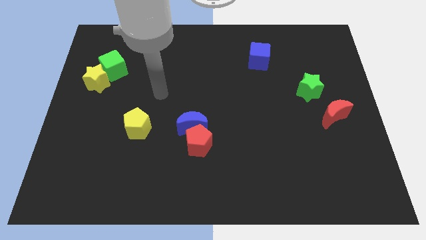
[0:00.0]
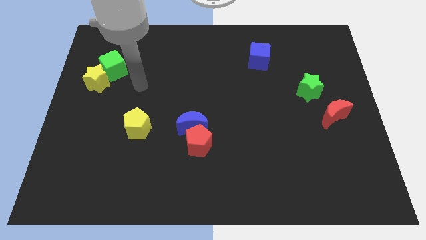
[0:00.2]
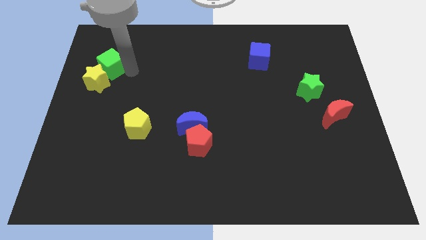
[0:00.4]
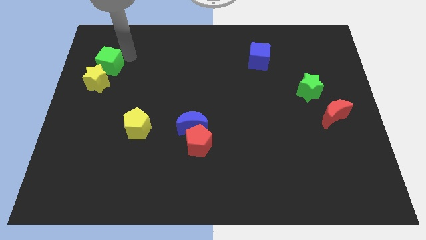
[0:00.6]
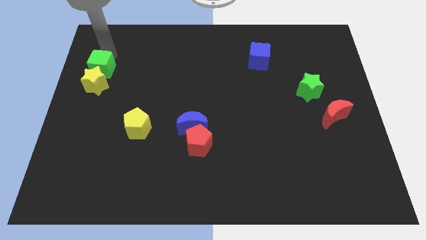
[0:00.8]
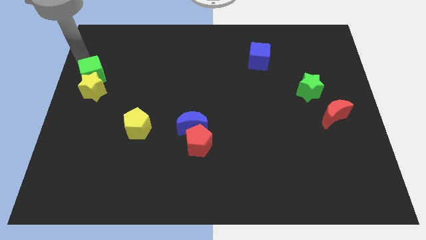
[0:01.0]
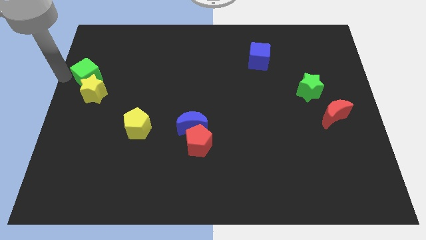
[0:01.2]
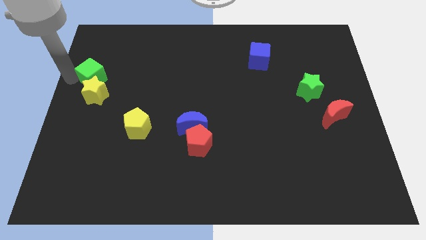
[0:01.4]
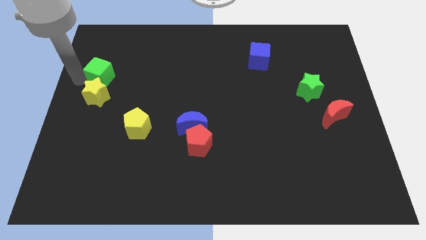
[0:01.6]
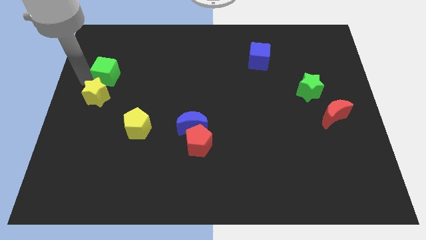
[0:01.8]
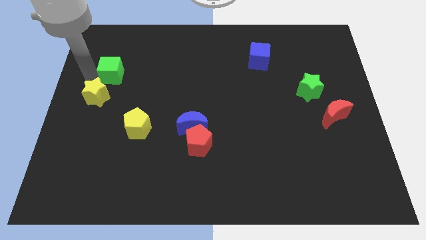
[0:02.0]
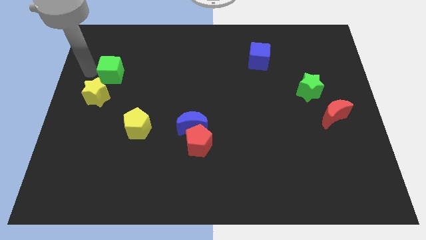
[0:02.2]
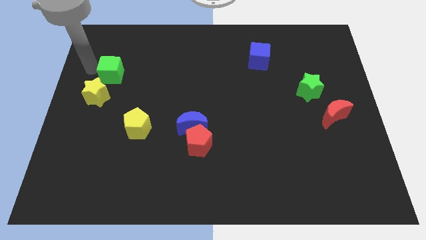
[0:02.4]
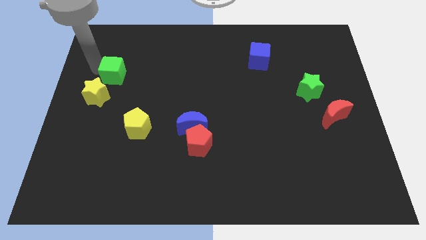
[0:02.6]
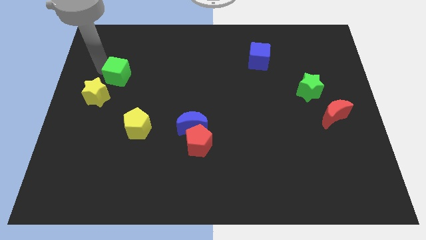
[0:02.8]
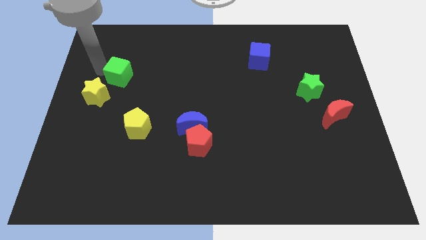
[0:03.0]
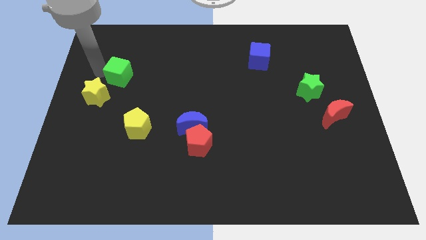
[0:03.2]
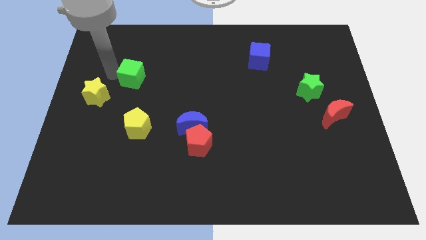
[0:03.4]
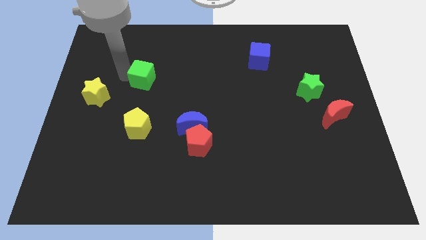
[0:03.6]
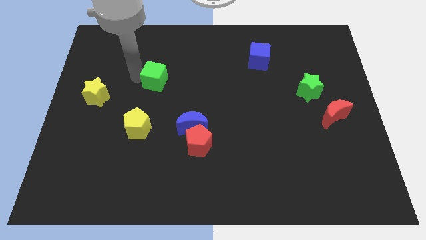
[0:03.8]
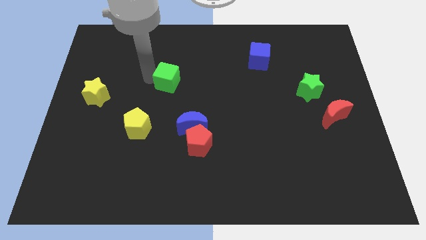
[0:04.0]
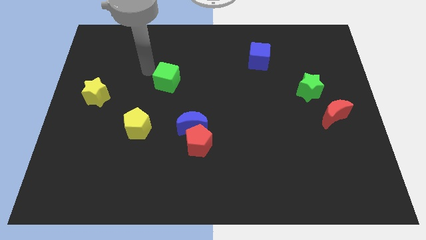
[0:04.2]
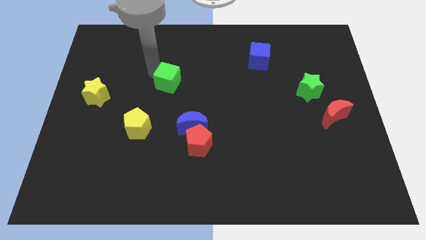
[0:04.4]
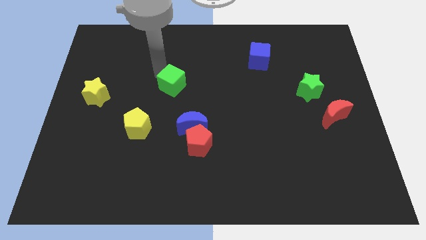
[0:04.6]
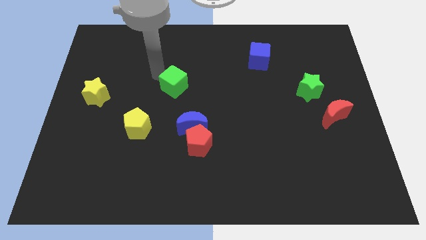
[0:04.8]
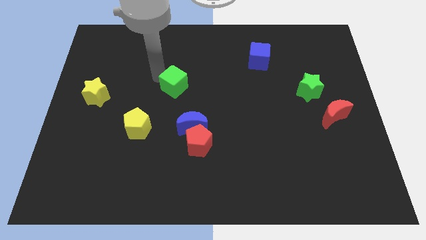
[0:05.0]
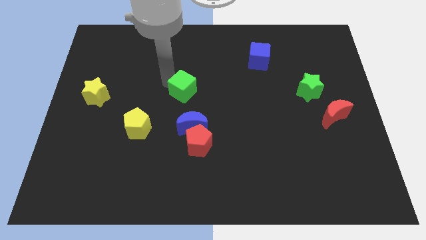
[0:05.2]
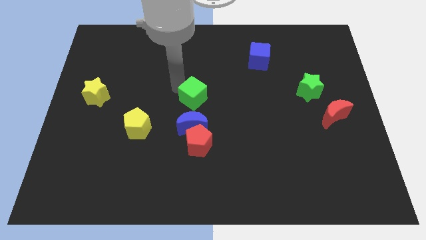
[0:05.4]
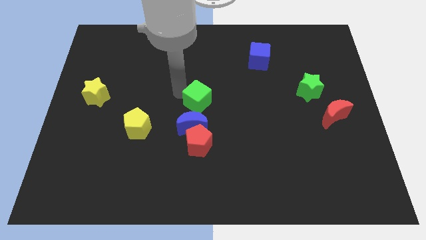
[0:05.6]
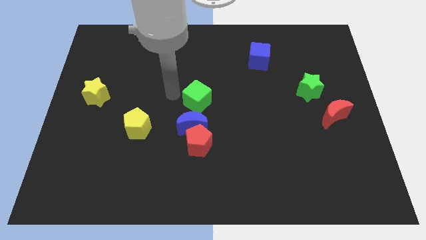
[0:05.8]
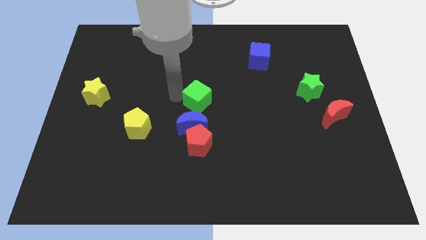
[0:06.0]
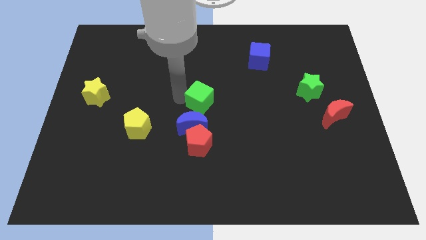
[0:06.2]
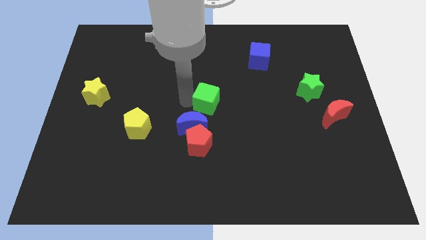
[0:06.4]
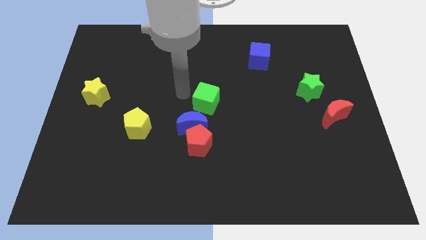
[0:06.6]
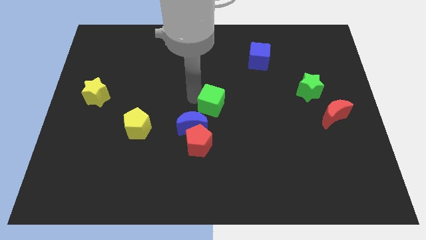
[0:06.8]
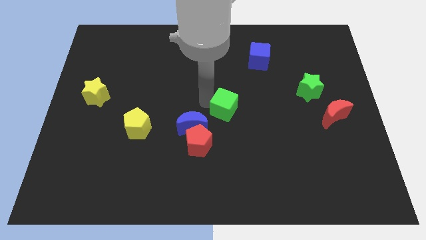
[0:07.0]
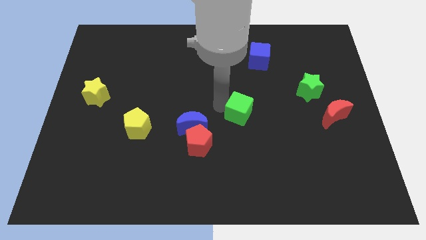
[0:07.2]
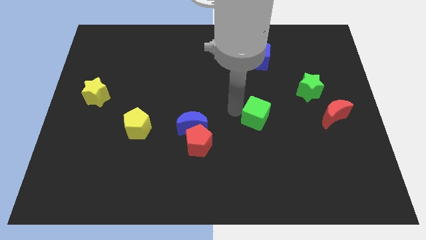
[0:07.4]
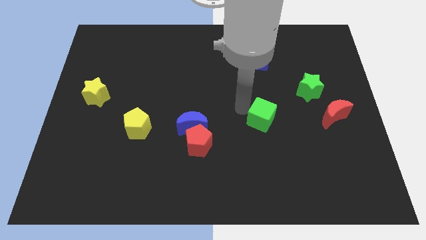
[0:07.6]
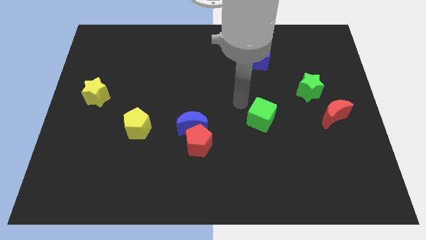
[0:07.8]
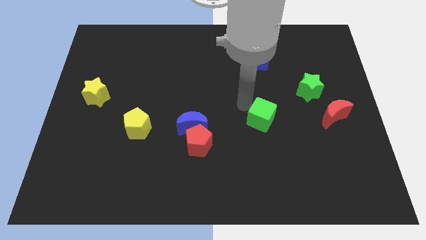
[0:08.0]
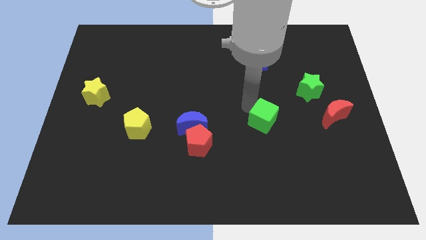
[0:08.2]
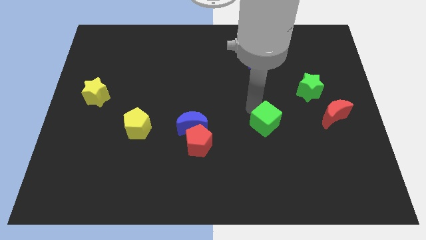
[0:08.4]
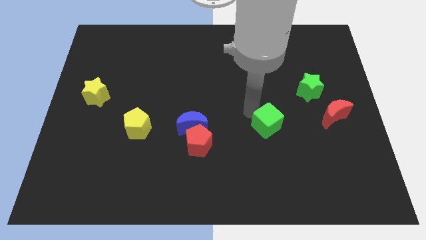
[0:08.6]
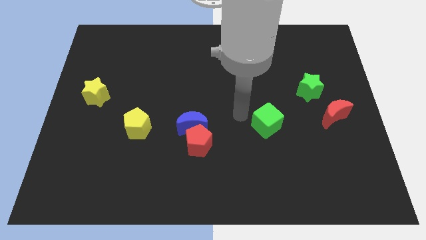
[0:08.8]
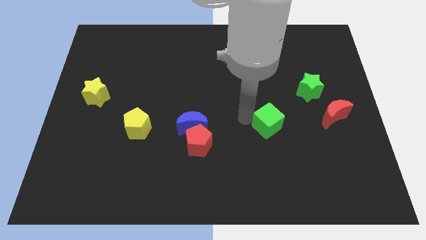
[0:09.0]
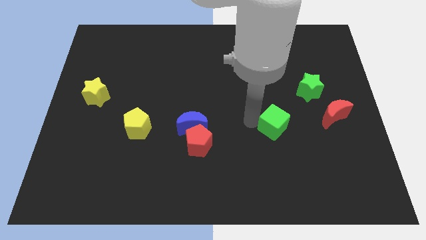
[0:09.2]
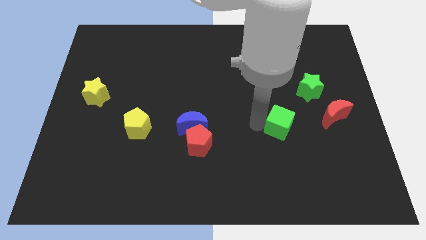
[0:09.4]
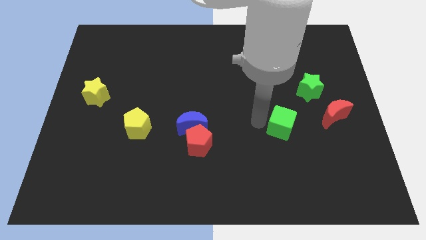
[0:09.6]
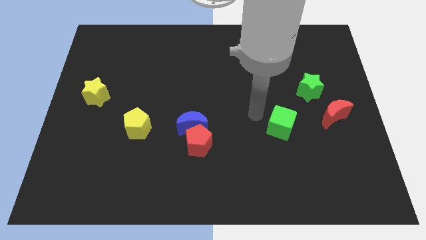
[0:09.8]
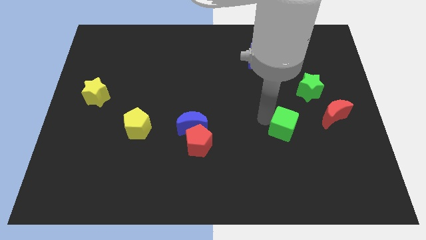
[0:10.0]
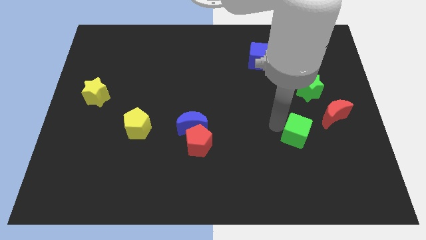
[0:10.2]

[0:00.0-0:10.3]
push the green cube diagonally down and to the left of the red moon

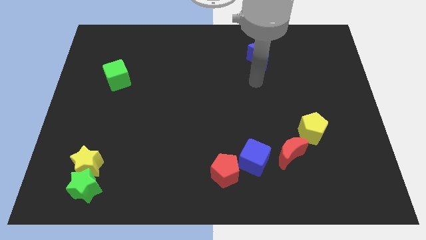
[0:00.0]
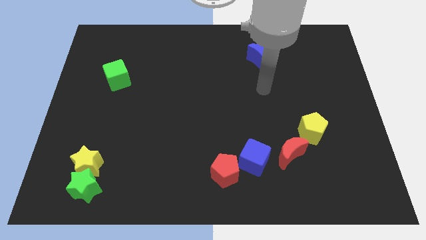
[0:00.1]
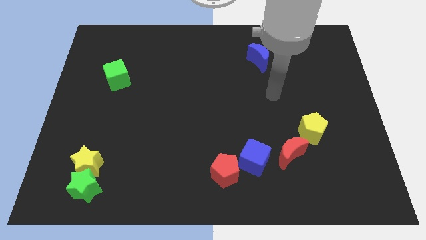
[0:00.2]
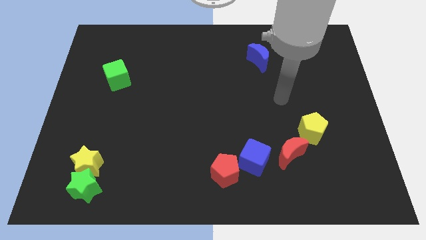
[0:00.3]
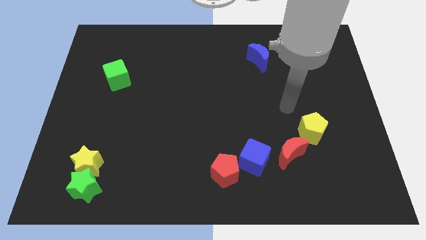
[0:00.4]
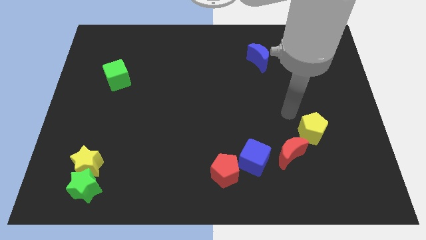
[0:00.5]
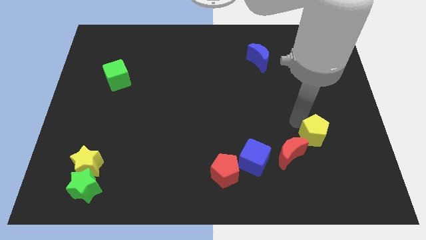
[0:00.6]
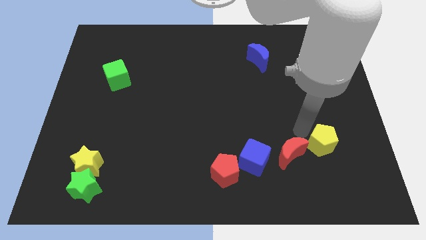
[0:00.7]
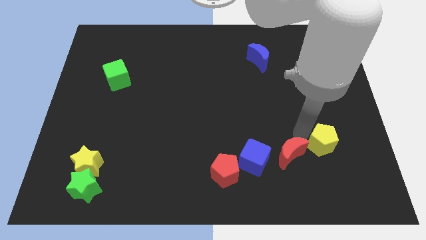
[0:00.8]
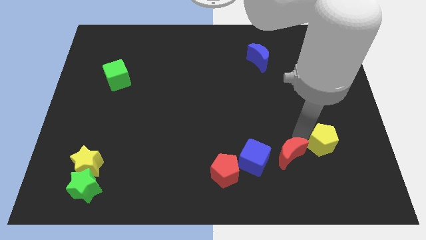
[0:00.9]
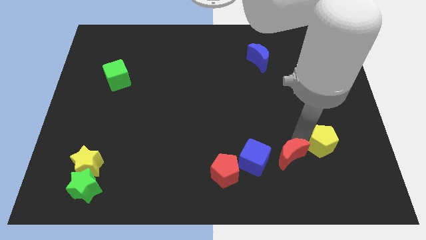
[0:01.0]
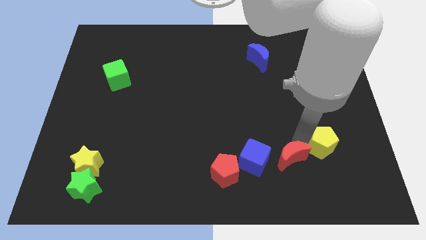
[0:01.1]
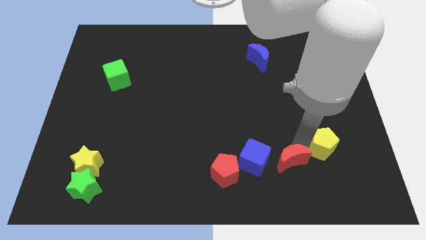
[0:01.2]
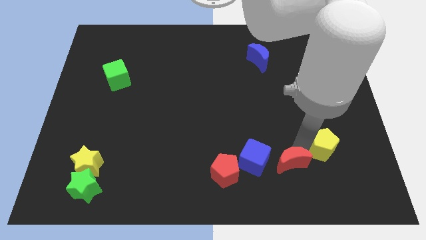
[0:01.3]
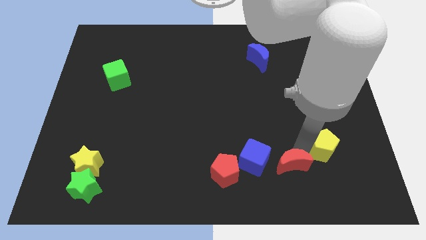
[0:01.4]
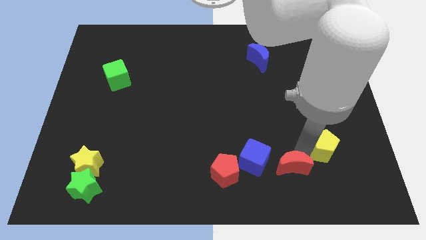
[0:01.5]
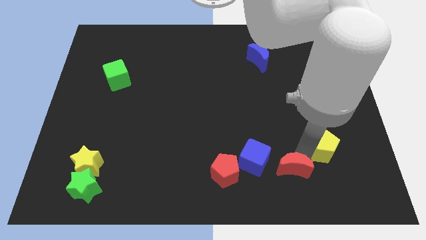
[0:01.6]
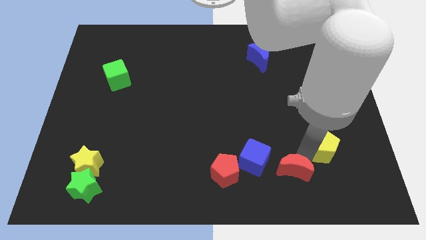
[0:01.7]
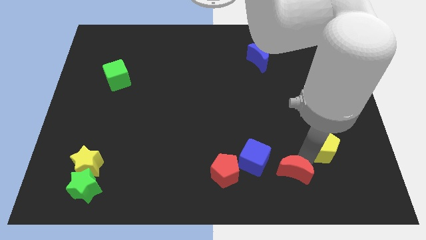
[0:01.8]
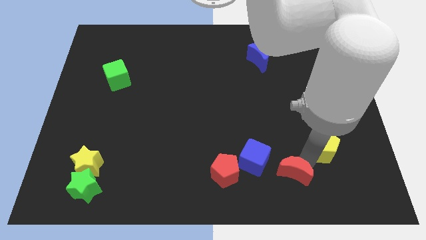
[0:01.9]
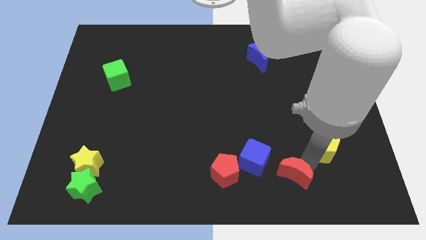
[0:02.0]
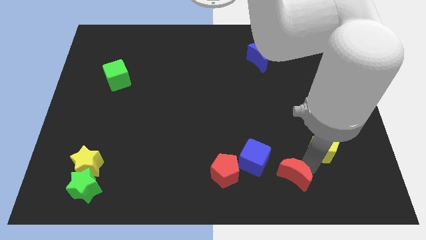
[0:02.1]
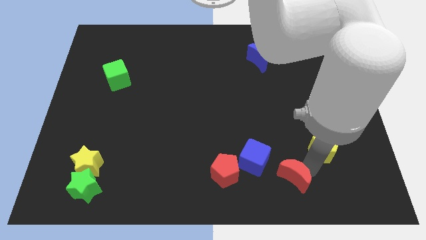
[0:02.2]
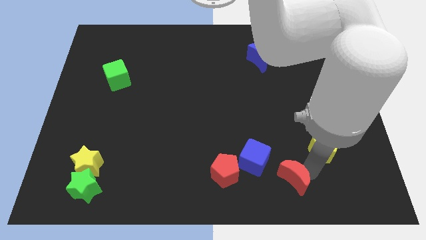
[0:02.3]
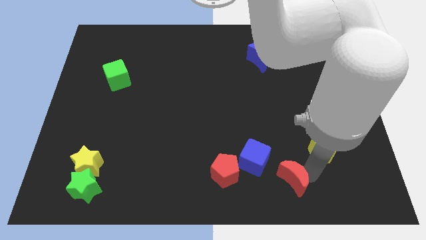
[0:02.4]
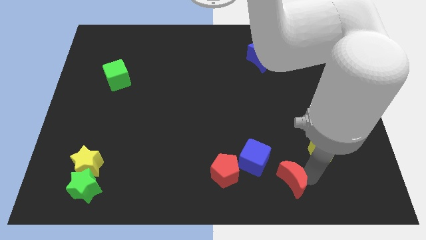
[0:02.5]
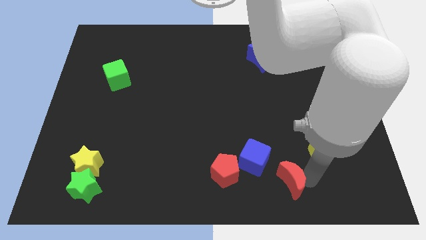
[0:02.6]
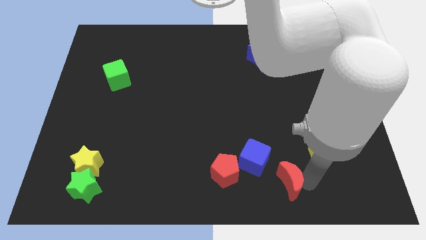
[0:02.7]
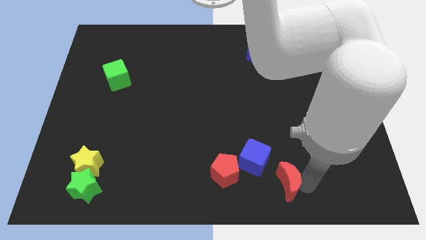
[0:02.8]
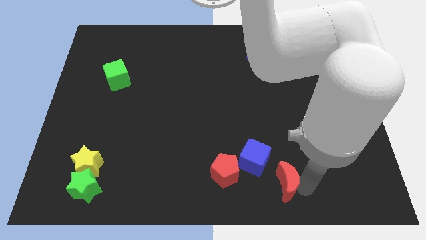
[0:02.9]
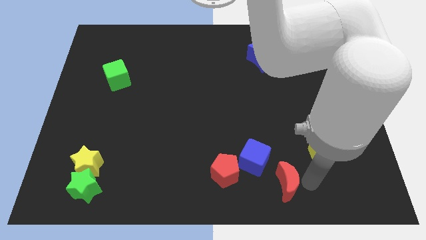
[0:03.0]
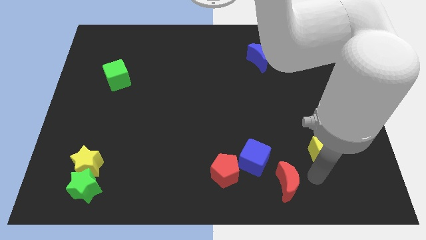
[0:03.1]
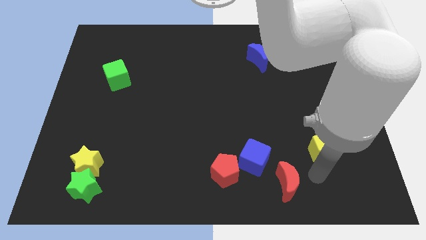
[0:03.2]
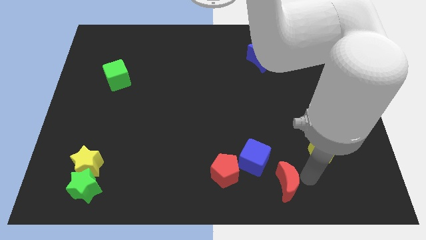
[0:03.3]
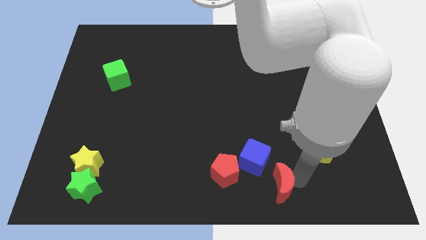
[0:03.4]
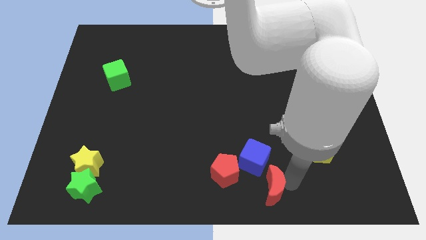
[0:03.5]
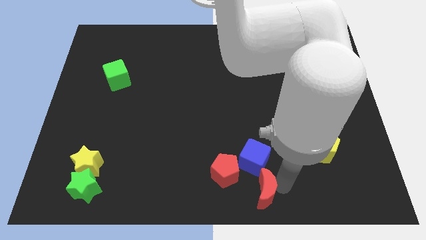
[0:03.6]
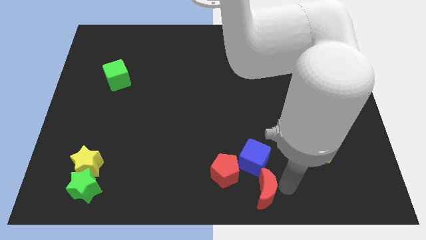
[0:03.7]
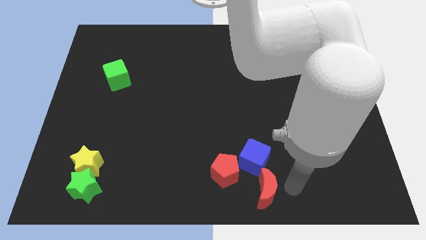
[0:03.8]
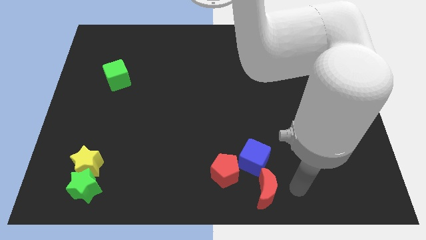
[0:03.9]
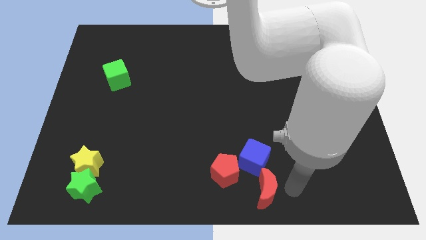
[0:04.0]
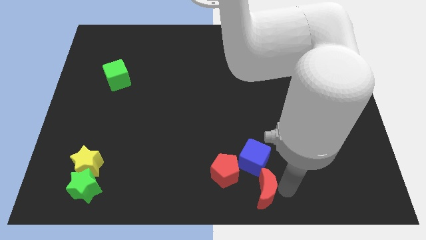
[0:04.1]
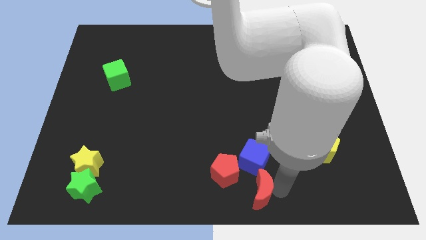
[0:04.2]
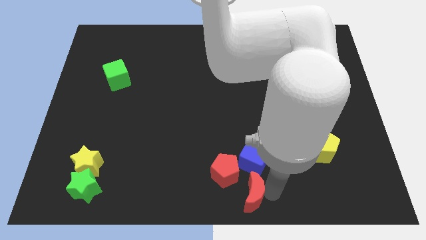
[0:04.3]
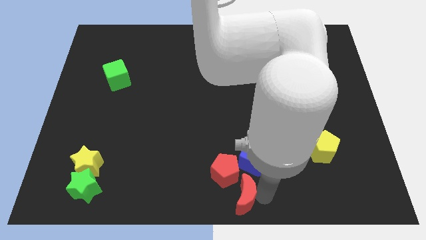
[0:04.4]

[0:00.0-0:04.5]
move the red moon to the bottom left side of the blue cube
